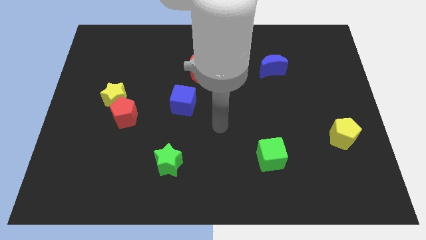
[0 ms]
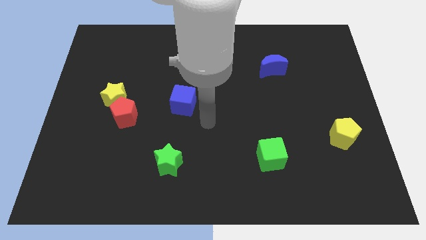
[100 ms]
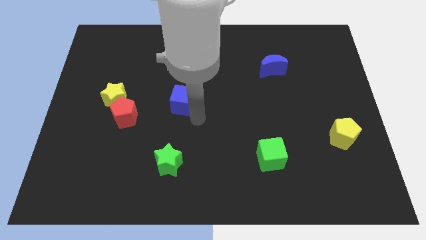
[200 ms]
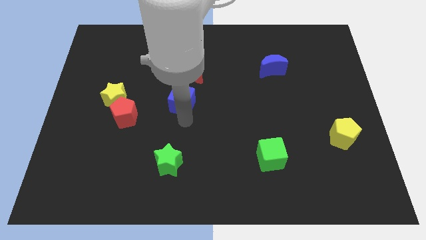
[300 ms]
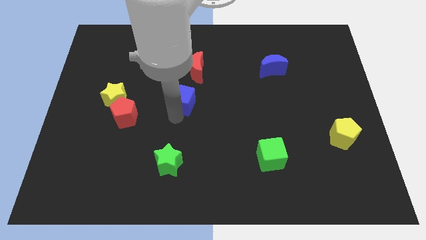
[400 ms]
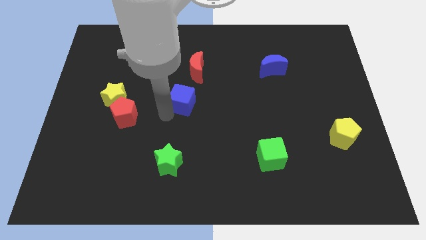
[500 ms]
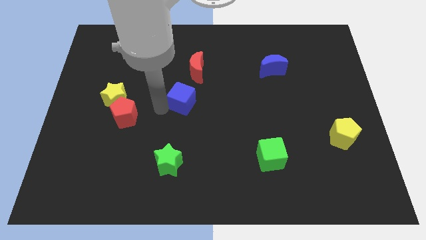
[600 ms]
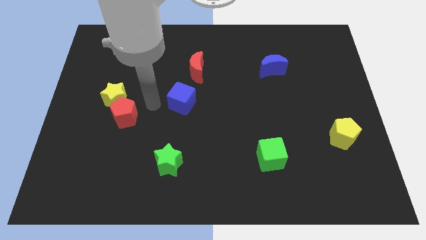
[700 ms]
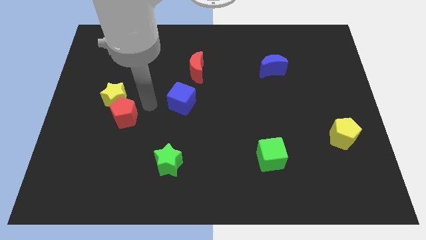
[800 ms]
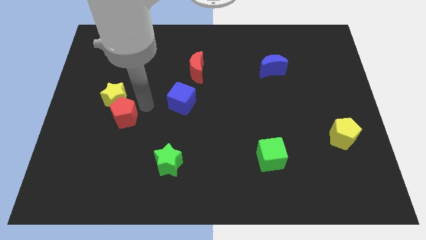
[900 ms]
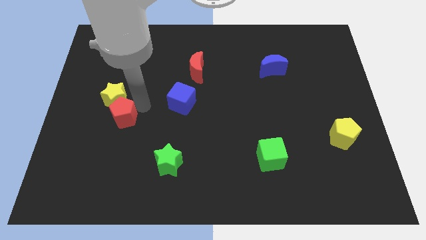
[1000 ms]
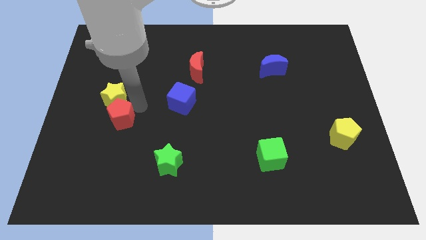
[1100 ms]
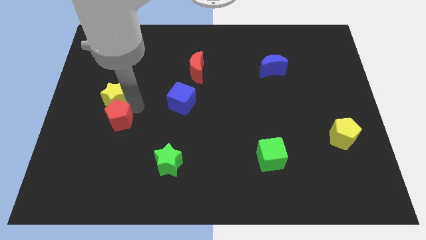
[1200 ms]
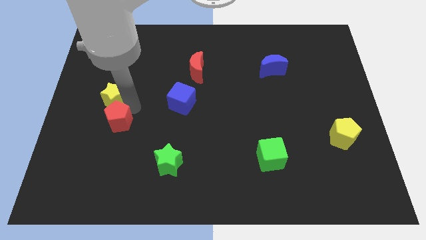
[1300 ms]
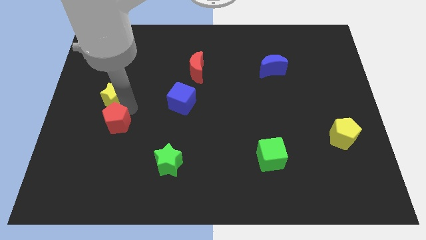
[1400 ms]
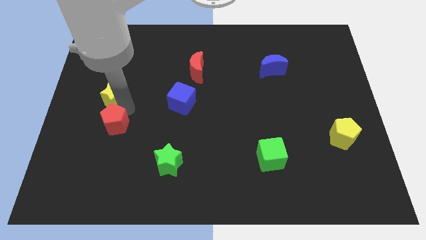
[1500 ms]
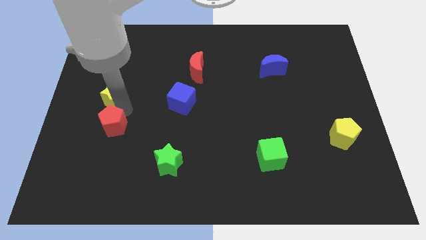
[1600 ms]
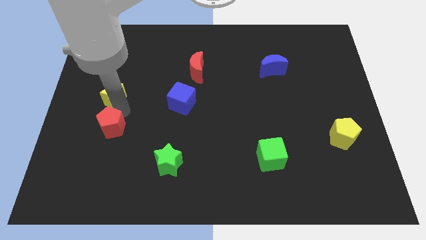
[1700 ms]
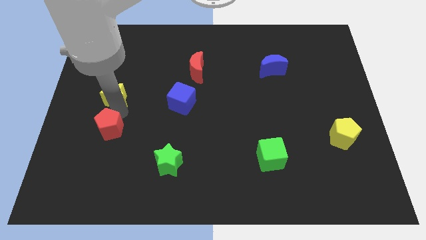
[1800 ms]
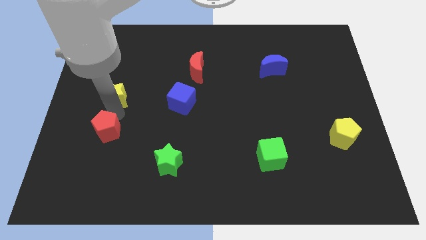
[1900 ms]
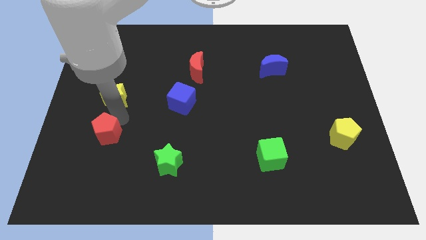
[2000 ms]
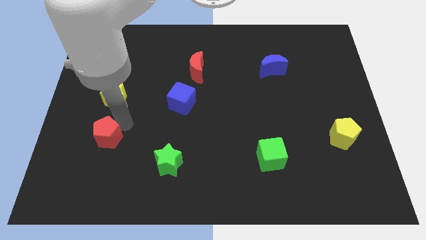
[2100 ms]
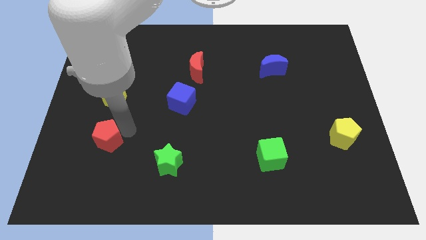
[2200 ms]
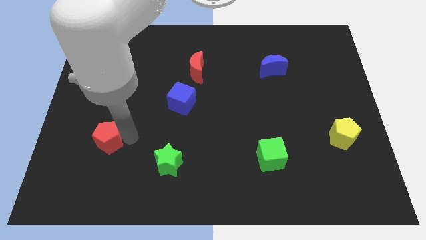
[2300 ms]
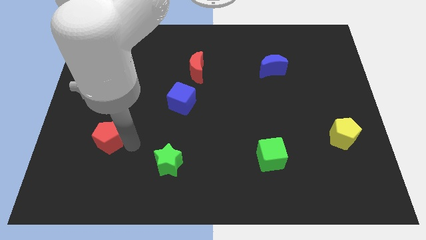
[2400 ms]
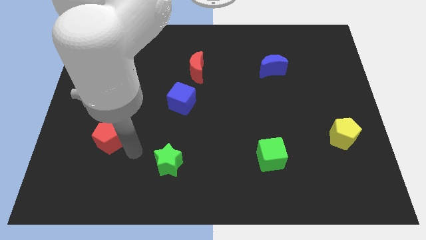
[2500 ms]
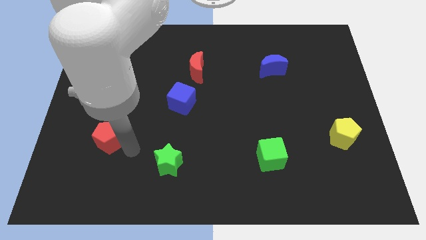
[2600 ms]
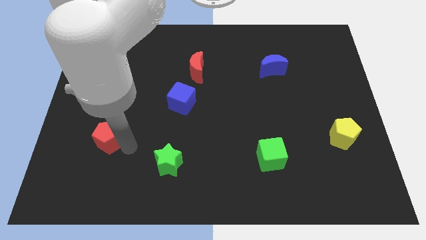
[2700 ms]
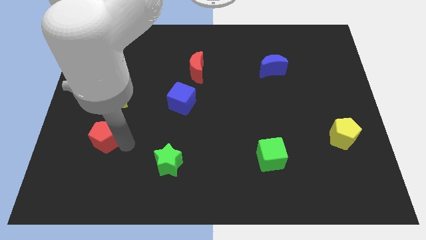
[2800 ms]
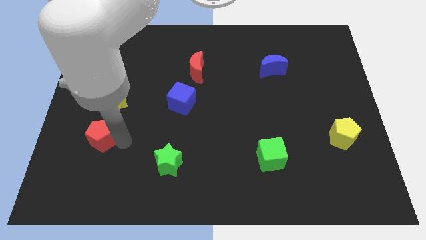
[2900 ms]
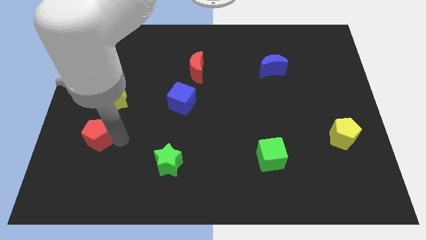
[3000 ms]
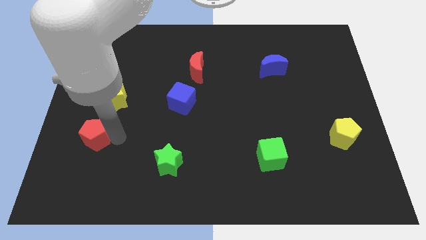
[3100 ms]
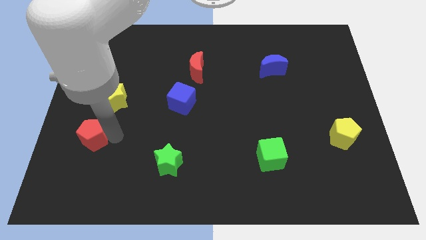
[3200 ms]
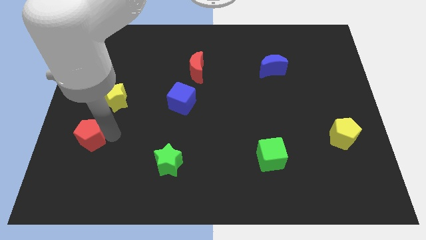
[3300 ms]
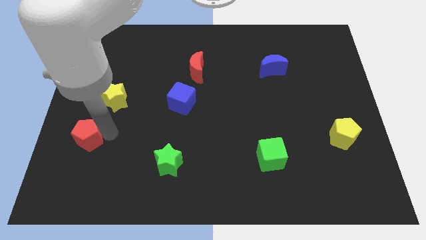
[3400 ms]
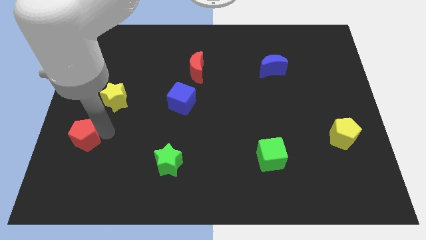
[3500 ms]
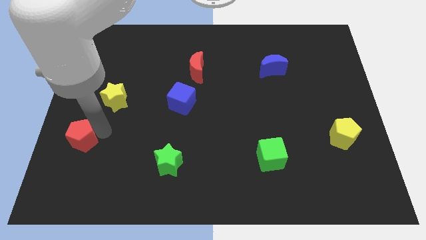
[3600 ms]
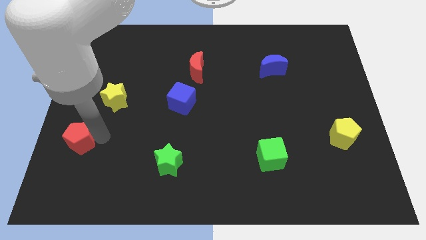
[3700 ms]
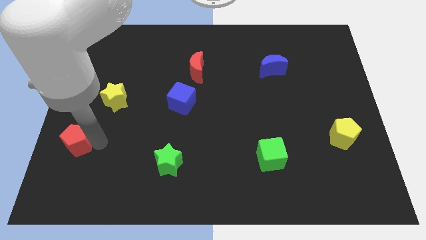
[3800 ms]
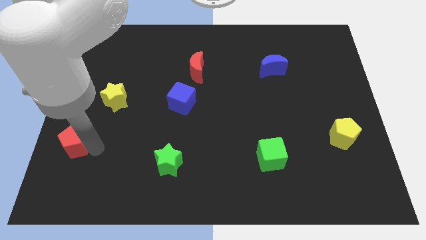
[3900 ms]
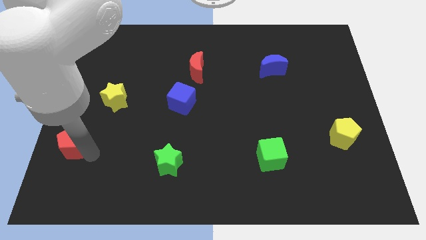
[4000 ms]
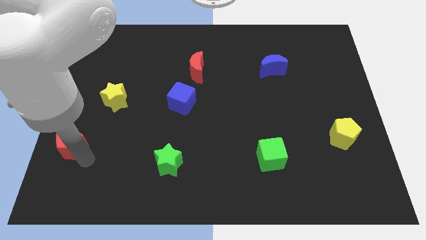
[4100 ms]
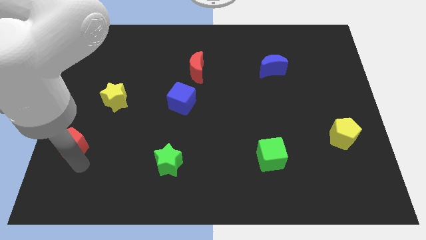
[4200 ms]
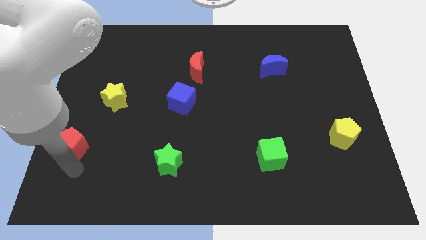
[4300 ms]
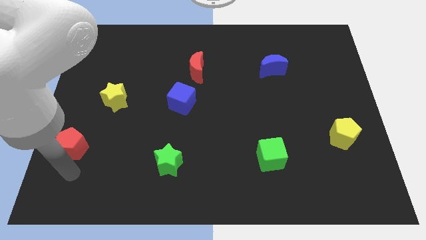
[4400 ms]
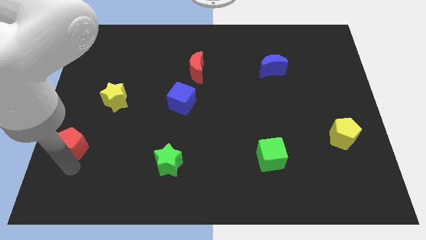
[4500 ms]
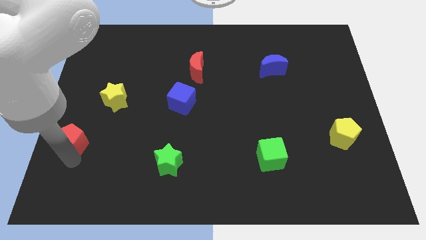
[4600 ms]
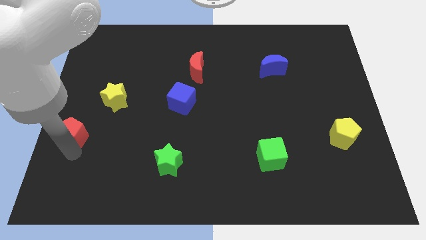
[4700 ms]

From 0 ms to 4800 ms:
slide the red pentagon to the left side

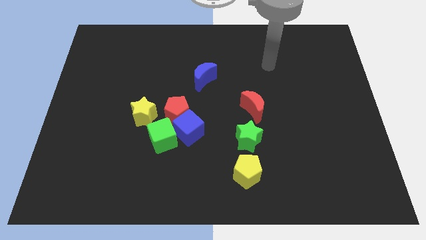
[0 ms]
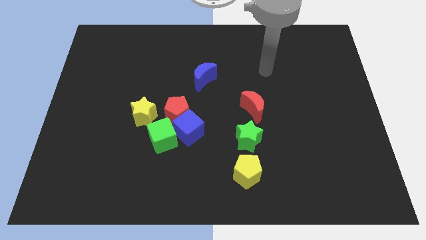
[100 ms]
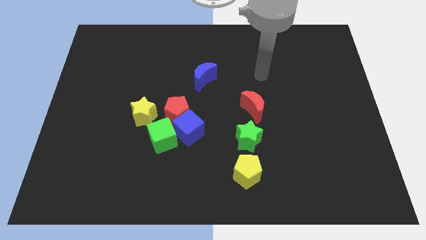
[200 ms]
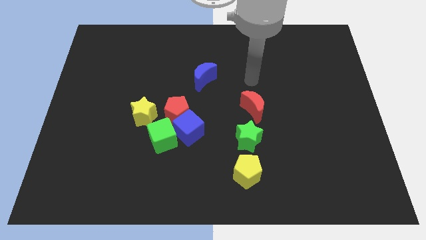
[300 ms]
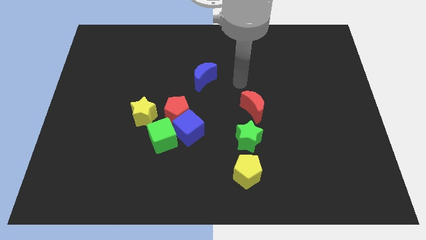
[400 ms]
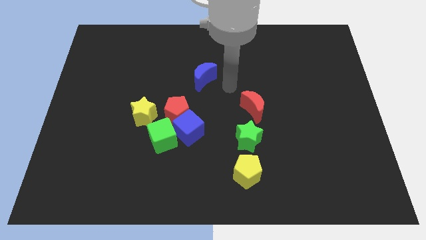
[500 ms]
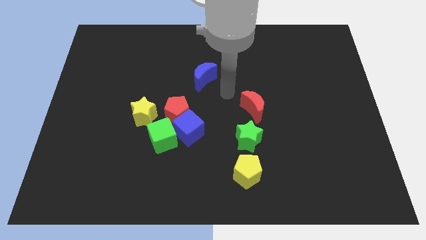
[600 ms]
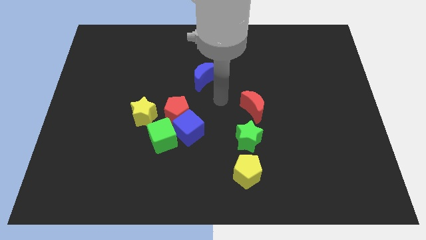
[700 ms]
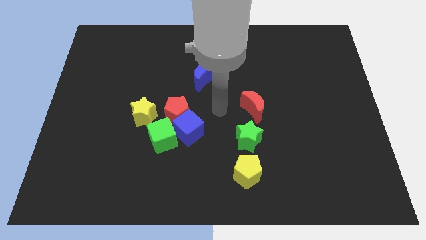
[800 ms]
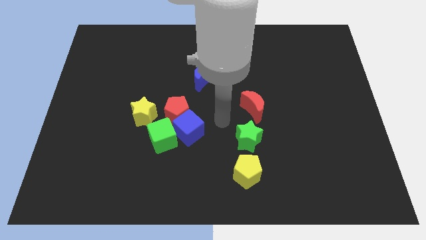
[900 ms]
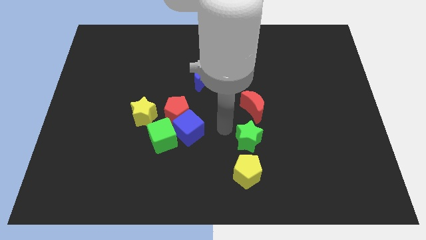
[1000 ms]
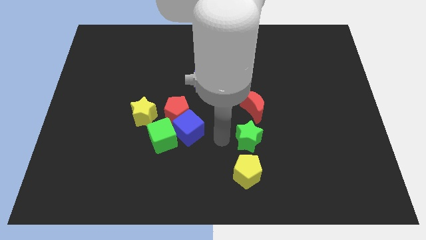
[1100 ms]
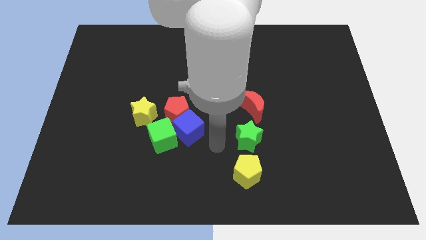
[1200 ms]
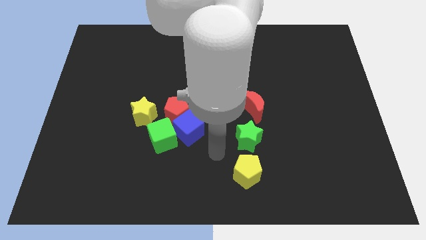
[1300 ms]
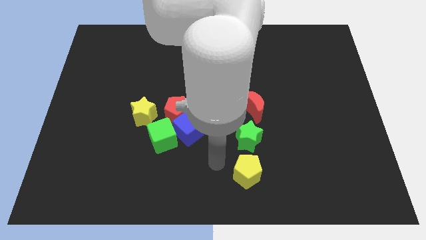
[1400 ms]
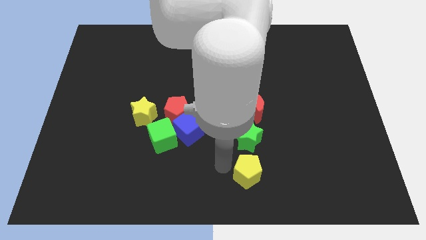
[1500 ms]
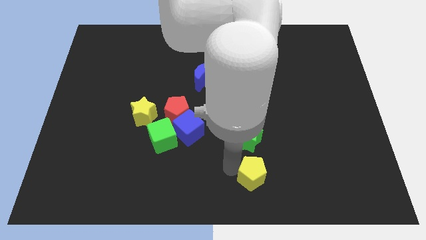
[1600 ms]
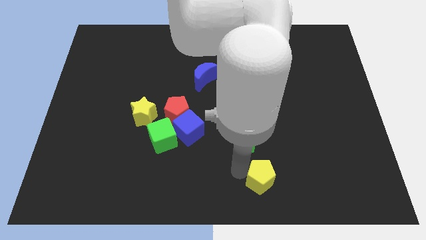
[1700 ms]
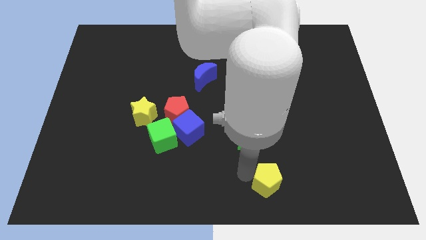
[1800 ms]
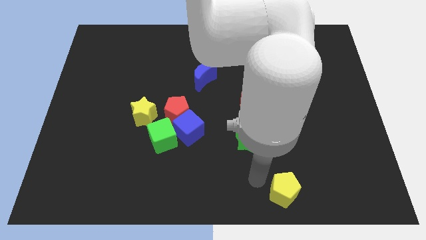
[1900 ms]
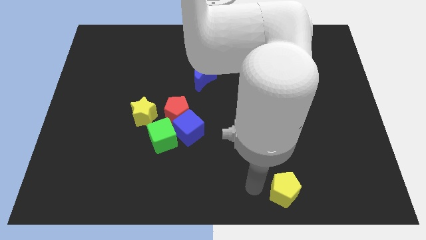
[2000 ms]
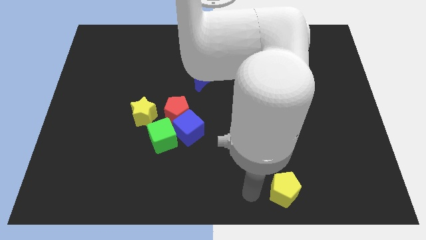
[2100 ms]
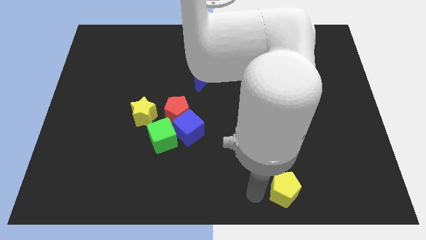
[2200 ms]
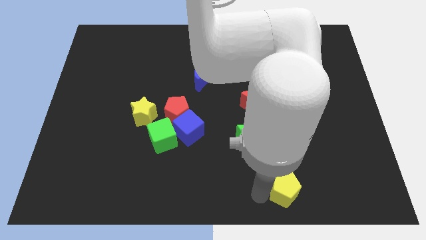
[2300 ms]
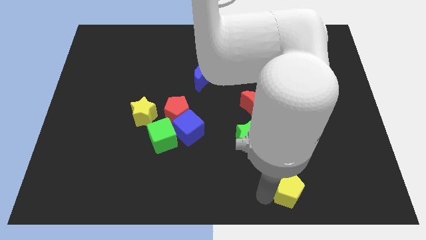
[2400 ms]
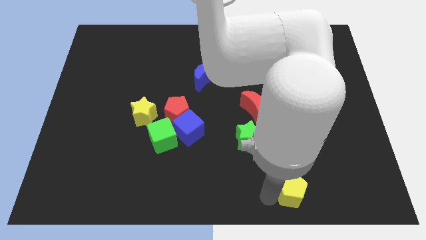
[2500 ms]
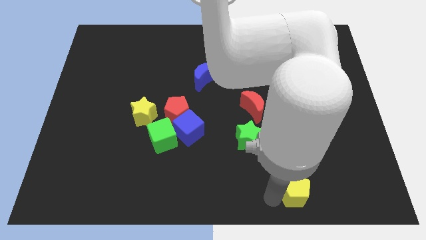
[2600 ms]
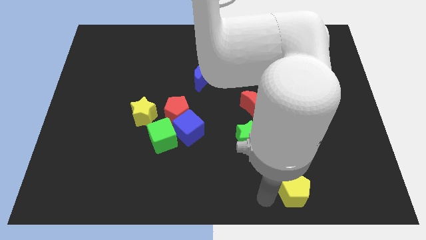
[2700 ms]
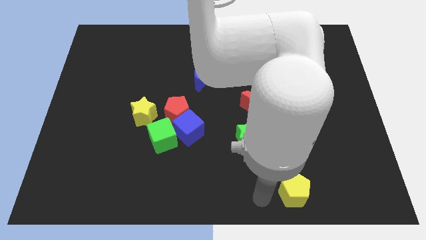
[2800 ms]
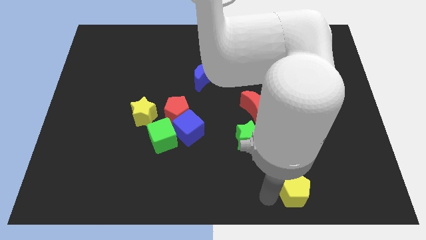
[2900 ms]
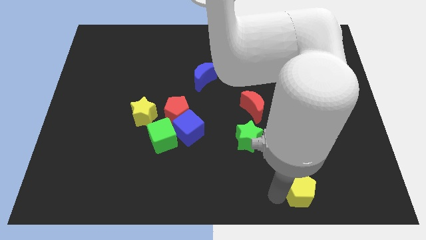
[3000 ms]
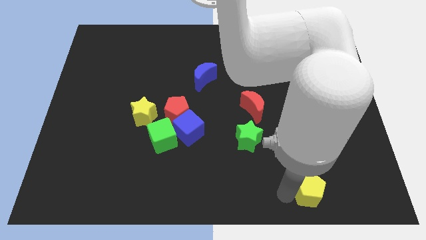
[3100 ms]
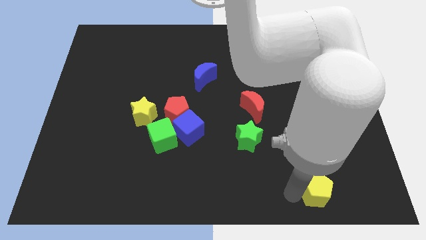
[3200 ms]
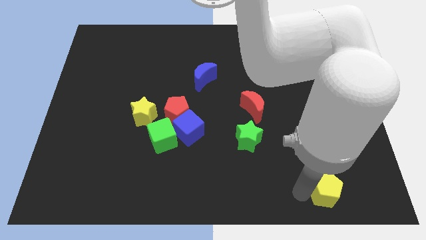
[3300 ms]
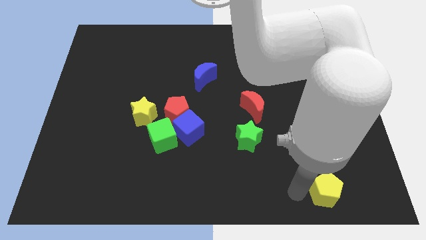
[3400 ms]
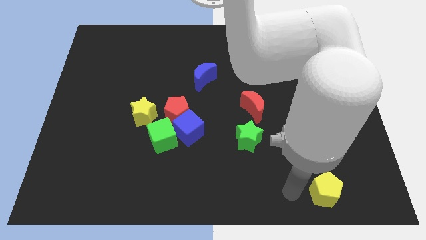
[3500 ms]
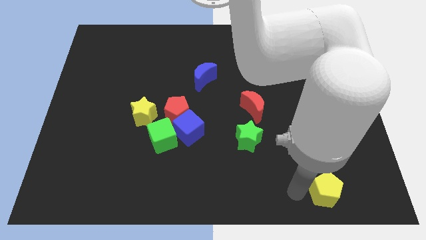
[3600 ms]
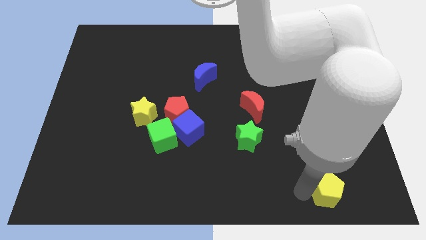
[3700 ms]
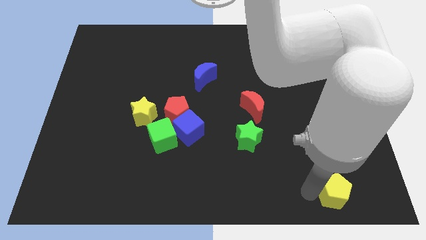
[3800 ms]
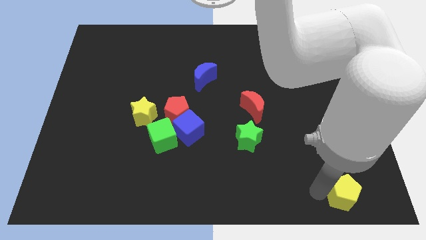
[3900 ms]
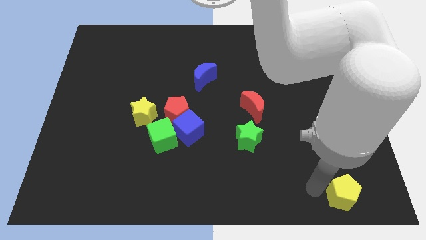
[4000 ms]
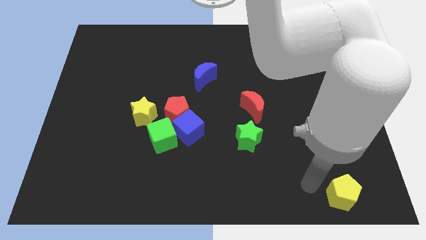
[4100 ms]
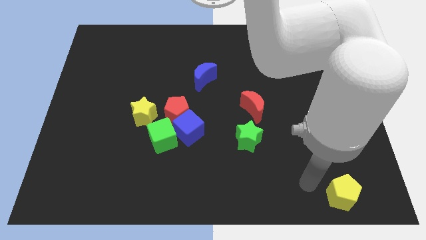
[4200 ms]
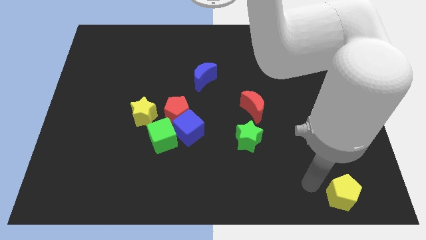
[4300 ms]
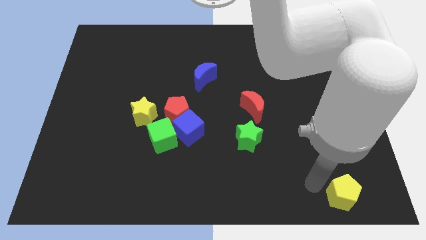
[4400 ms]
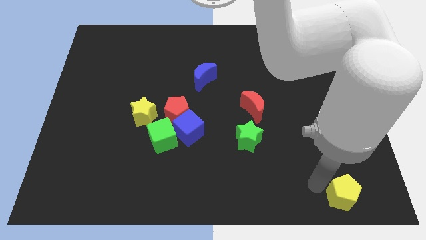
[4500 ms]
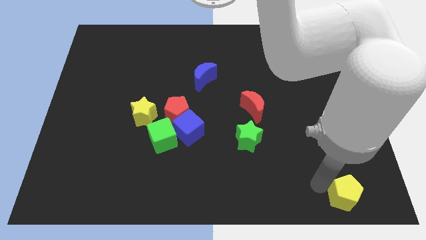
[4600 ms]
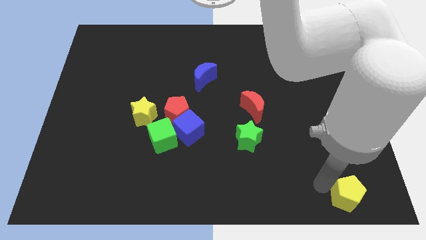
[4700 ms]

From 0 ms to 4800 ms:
put the yellow pentagon to the lower right corner
